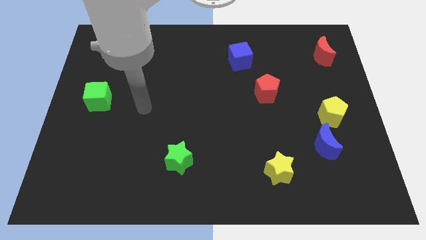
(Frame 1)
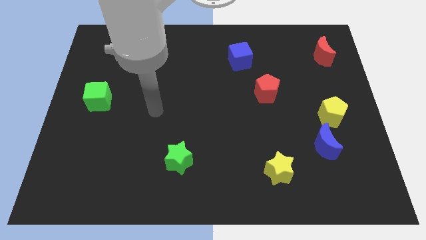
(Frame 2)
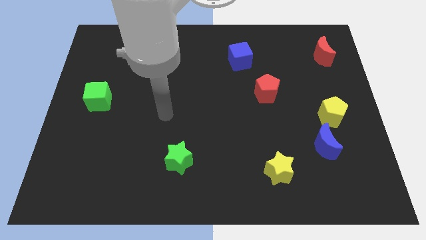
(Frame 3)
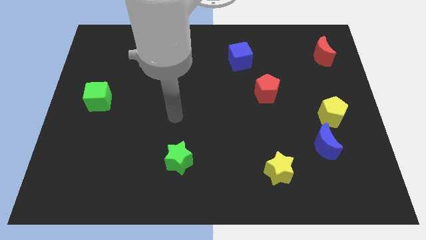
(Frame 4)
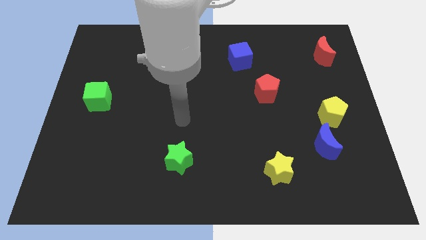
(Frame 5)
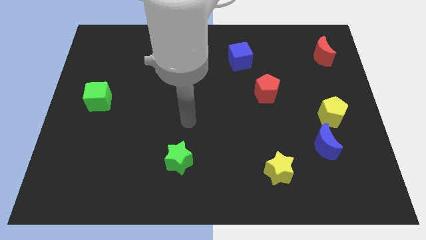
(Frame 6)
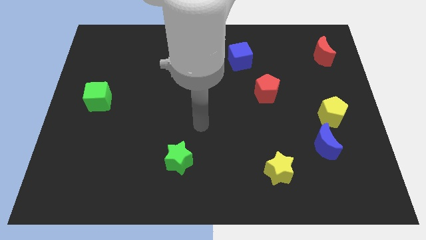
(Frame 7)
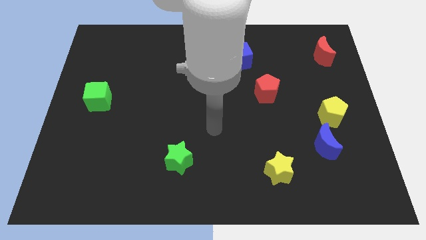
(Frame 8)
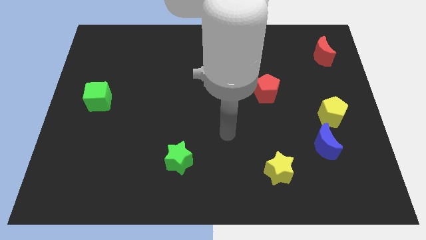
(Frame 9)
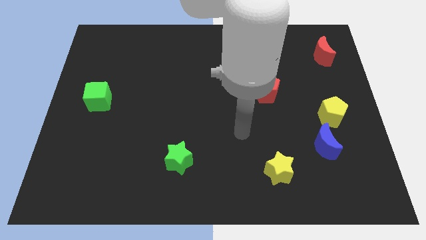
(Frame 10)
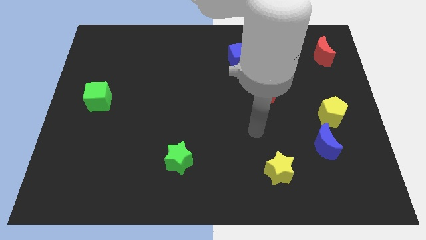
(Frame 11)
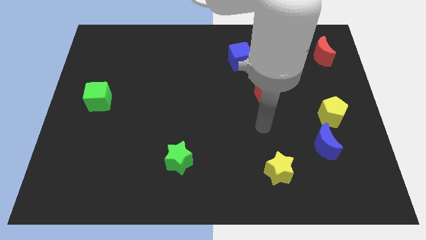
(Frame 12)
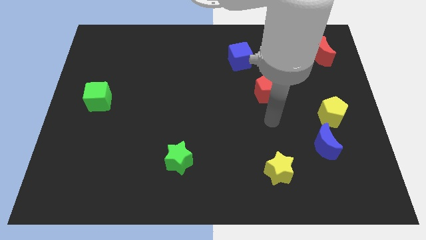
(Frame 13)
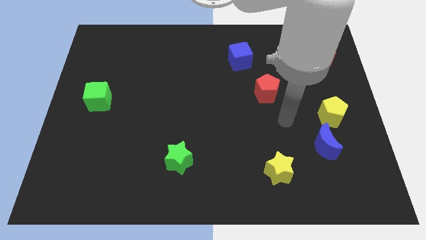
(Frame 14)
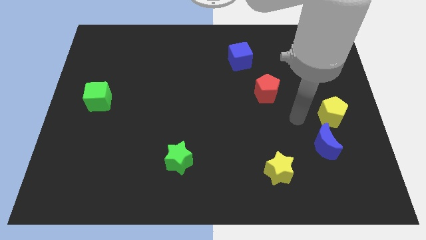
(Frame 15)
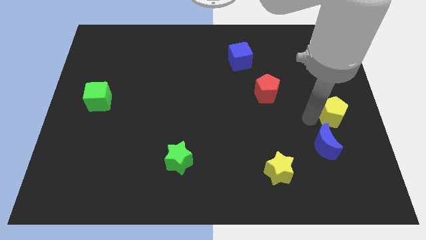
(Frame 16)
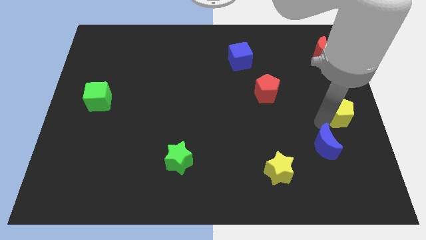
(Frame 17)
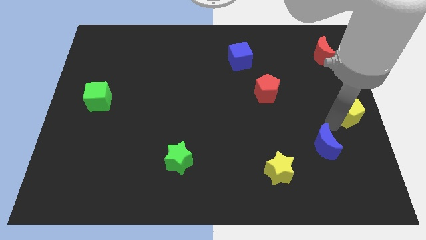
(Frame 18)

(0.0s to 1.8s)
separate the blue moon from the yellow pentagon

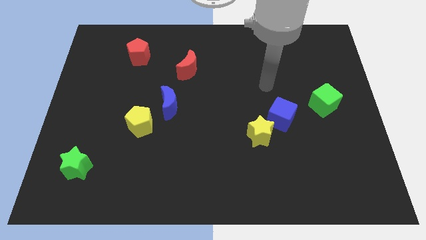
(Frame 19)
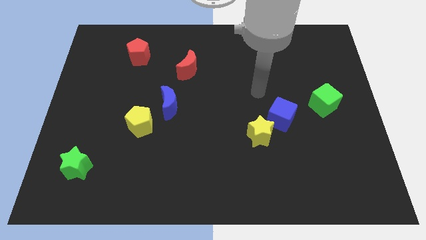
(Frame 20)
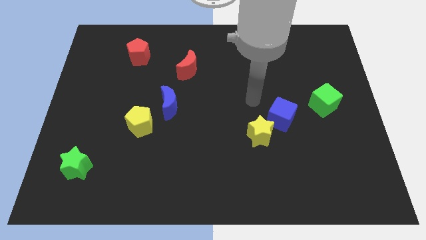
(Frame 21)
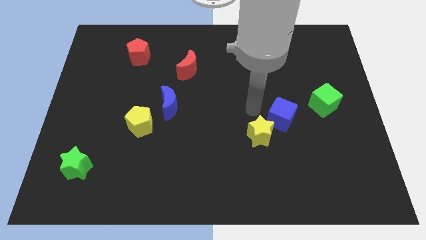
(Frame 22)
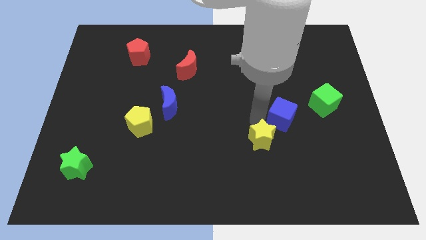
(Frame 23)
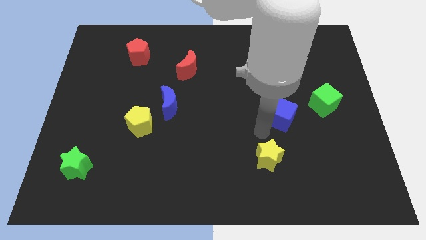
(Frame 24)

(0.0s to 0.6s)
move the blue cube away from the yellow star

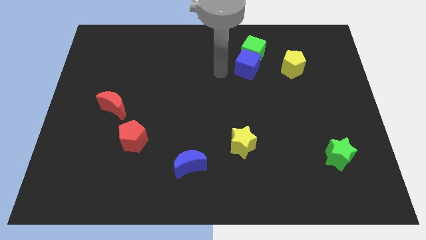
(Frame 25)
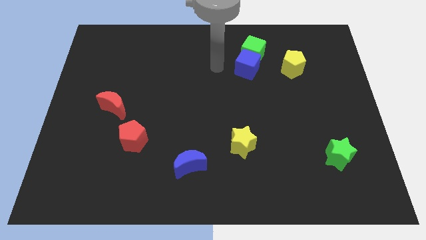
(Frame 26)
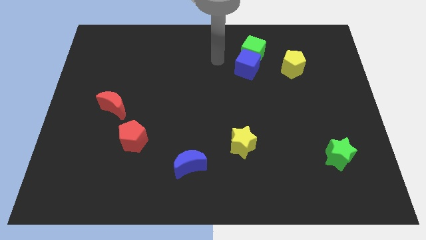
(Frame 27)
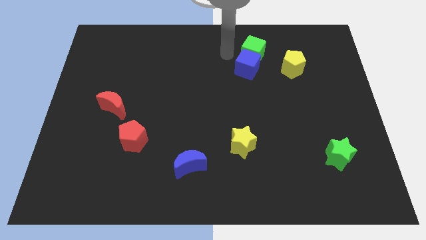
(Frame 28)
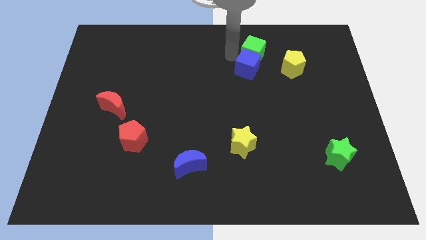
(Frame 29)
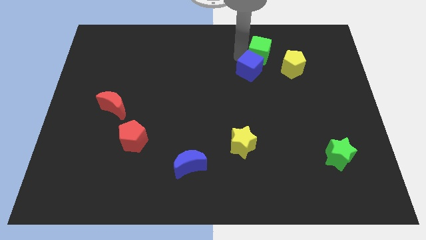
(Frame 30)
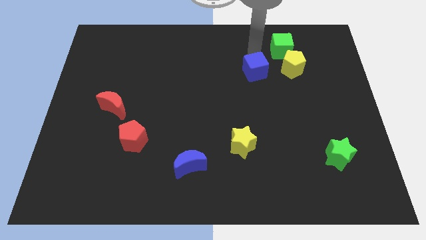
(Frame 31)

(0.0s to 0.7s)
separate the blue cube from the green cube

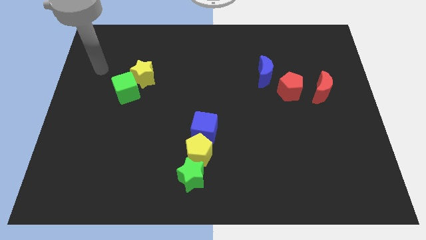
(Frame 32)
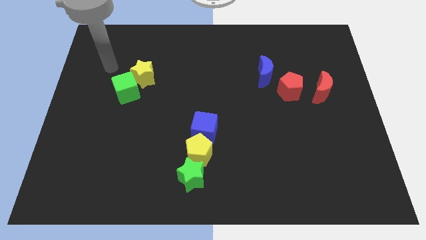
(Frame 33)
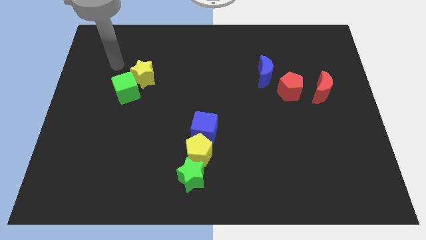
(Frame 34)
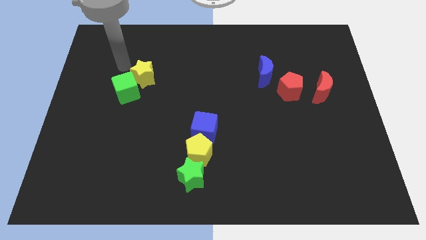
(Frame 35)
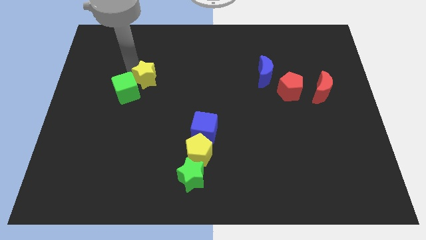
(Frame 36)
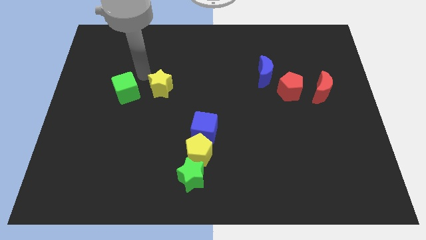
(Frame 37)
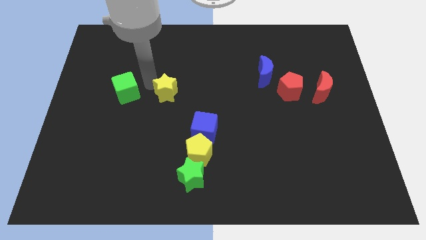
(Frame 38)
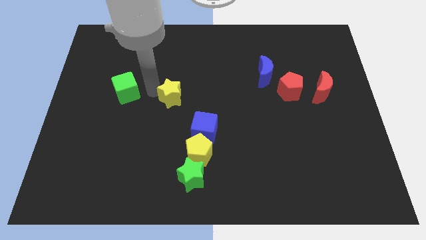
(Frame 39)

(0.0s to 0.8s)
separate the green cube from the yellow star

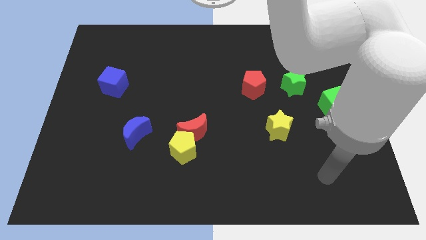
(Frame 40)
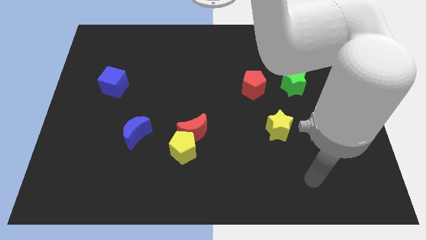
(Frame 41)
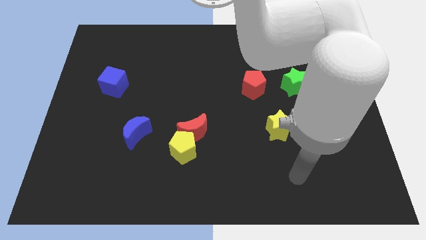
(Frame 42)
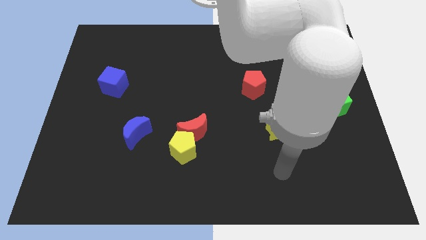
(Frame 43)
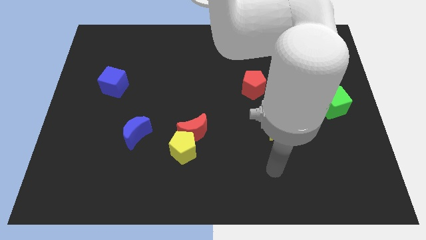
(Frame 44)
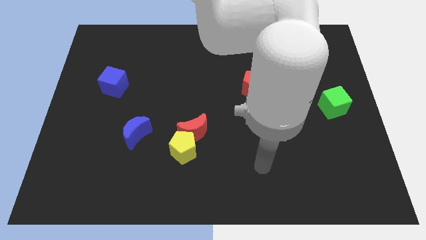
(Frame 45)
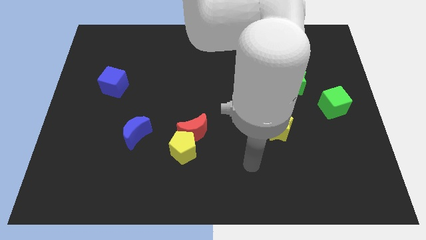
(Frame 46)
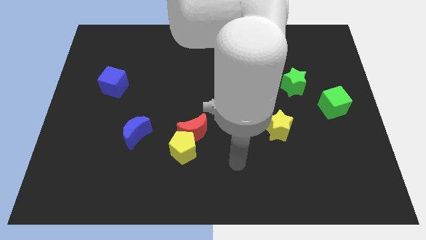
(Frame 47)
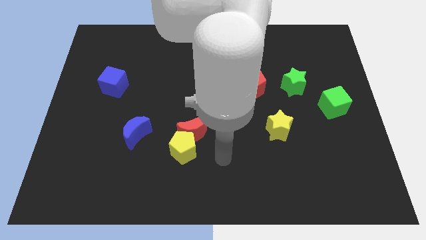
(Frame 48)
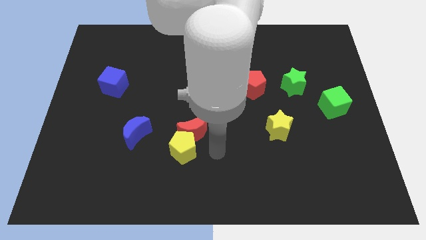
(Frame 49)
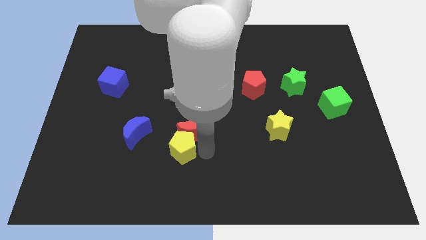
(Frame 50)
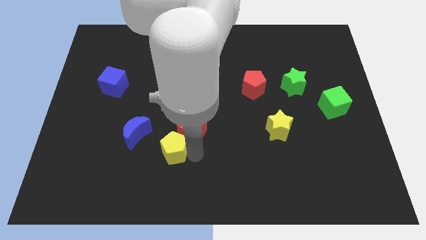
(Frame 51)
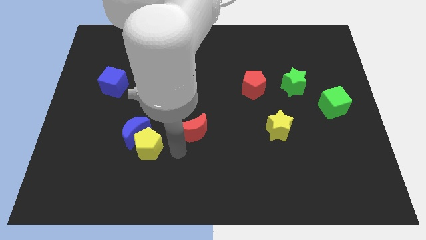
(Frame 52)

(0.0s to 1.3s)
pull the red moon apart from the yellow pentagon

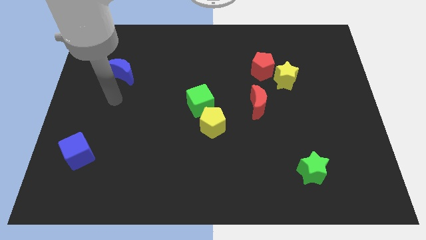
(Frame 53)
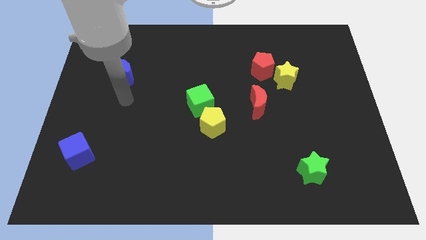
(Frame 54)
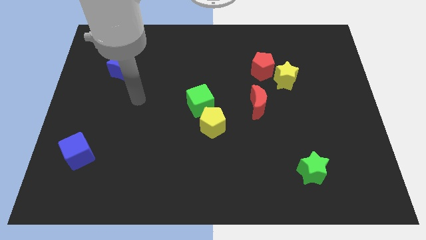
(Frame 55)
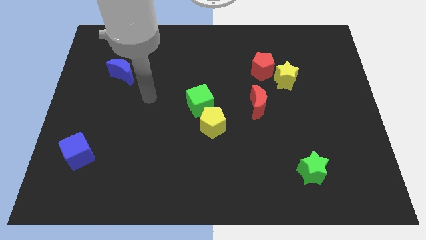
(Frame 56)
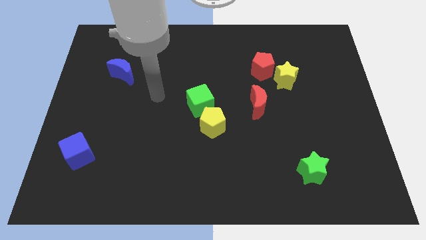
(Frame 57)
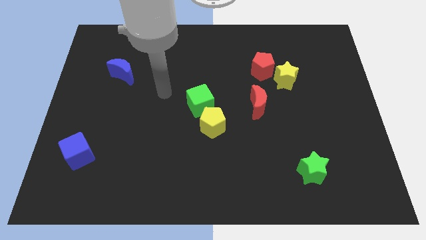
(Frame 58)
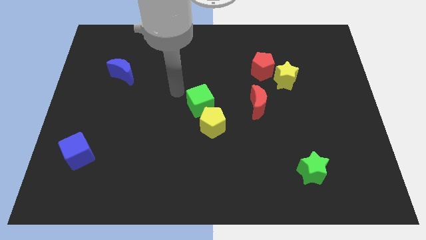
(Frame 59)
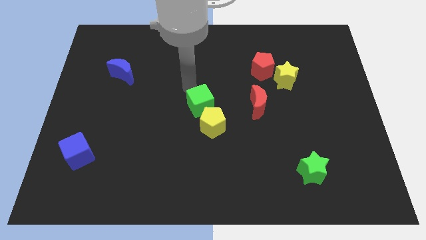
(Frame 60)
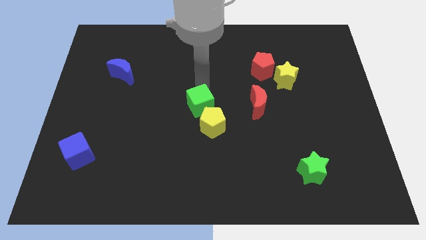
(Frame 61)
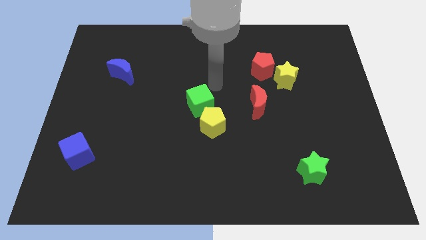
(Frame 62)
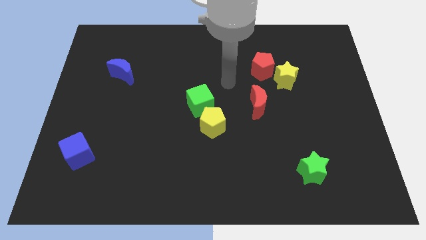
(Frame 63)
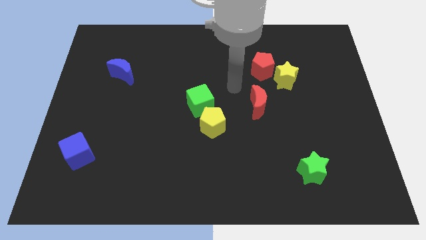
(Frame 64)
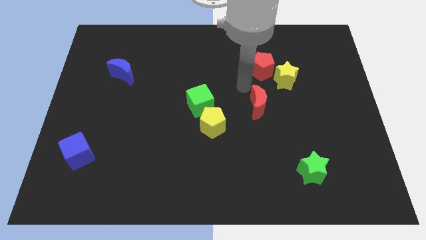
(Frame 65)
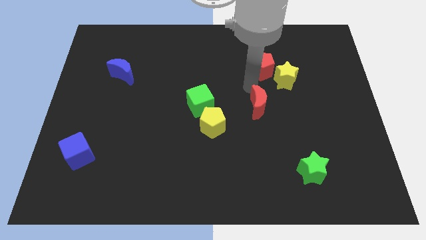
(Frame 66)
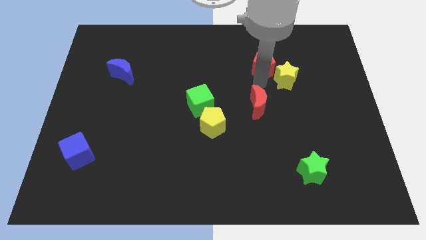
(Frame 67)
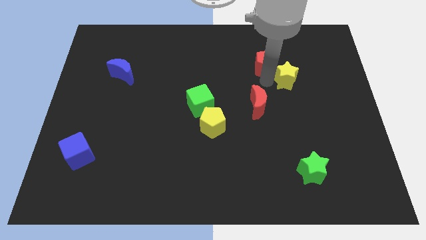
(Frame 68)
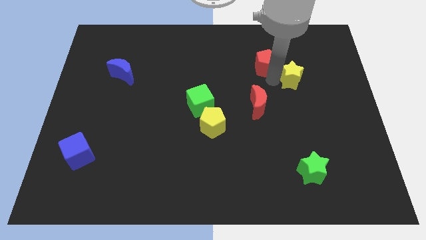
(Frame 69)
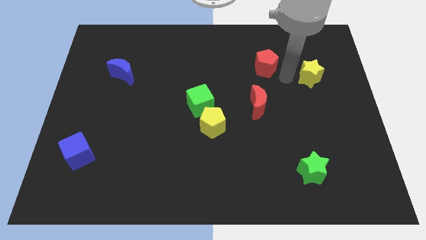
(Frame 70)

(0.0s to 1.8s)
move the red pentagon away from the yellow star

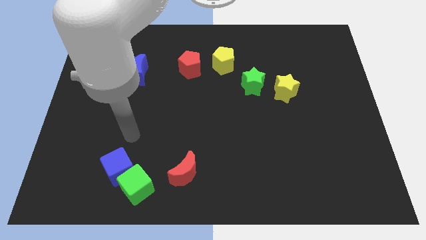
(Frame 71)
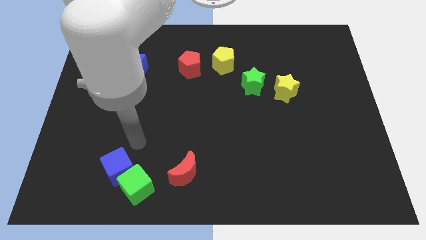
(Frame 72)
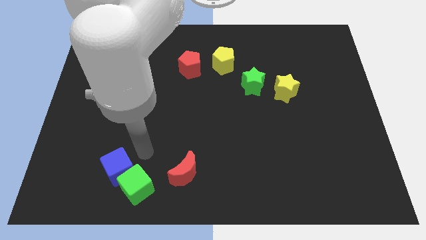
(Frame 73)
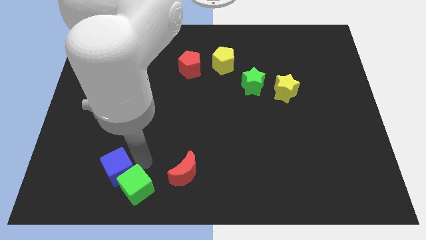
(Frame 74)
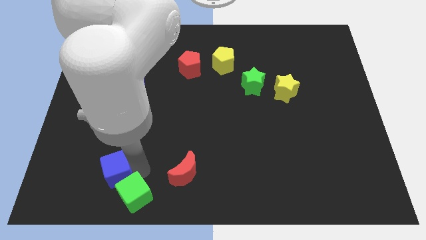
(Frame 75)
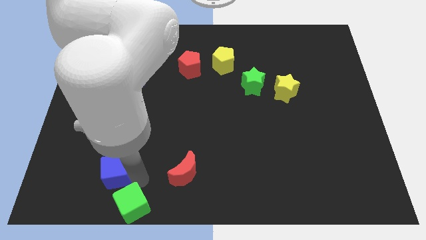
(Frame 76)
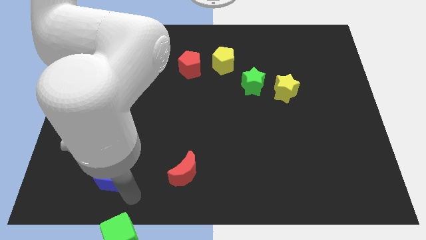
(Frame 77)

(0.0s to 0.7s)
move the blue cube away from the green cube

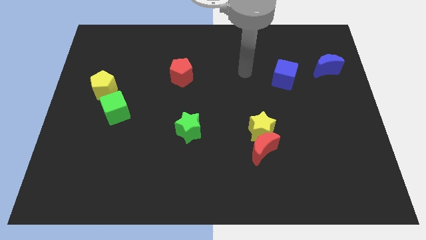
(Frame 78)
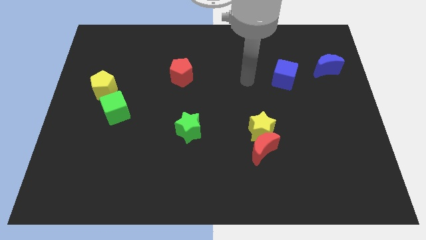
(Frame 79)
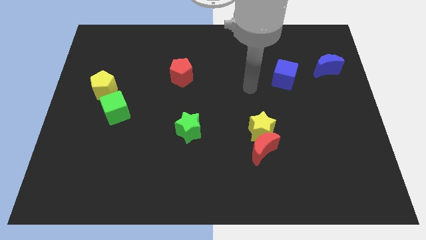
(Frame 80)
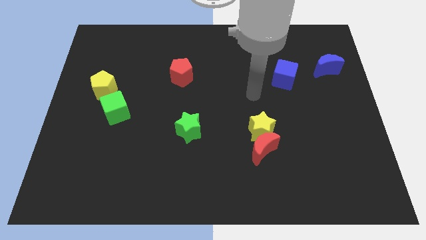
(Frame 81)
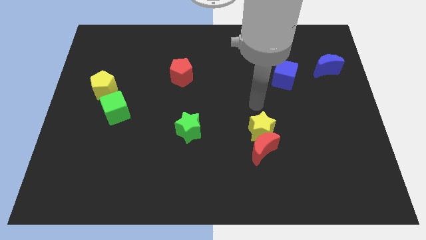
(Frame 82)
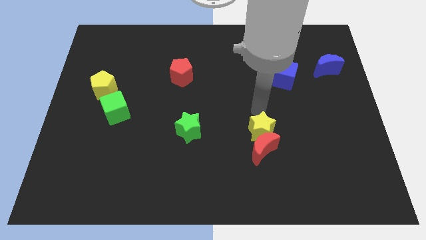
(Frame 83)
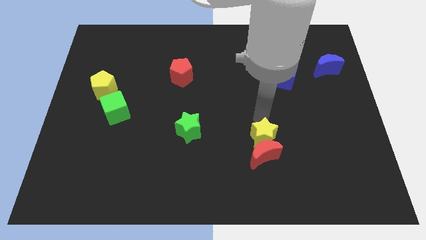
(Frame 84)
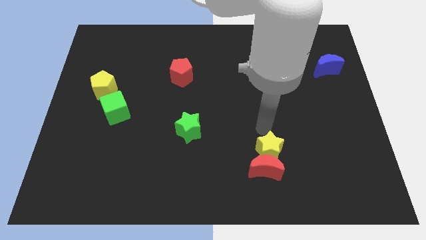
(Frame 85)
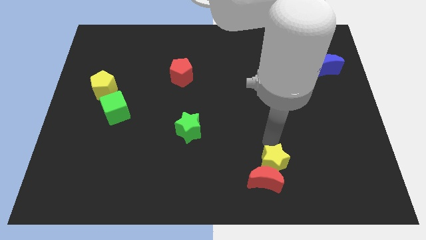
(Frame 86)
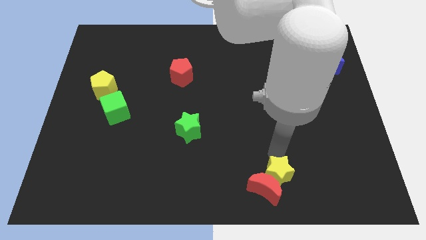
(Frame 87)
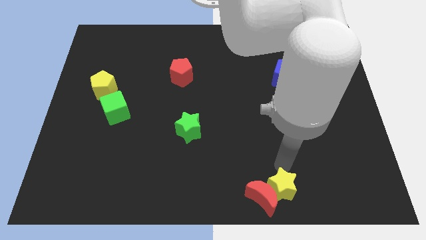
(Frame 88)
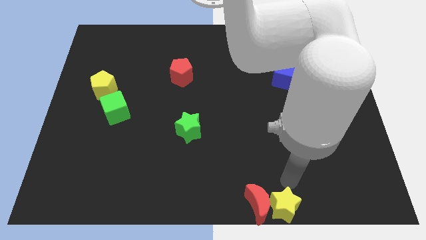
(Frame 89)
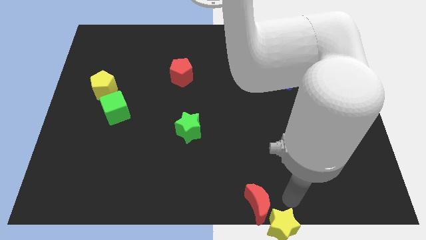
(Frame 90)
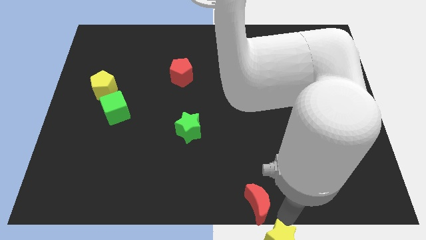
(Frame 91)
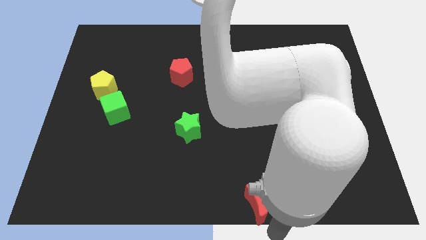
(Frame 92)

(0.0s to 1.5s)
pull the red moon apart from the yellow star
